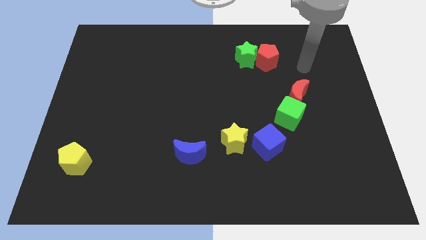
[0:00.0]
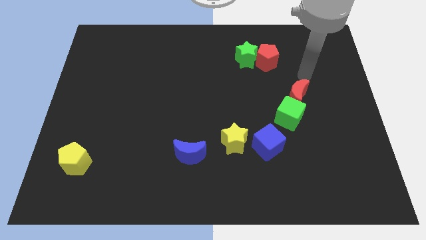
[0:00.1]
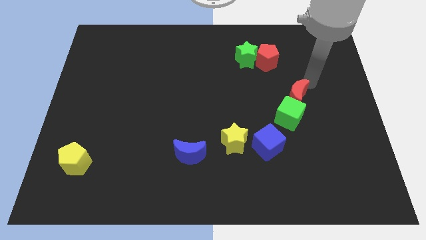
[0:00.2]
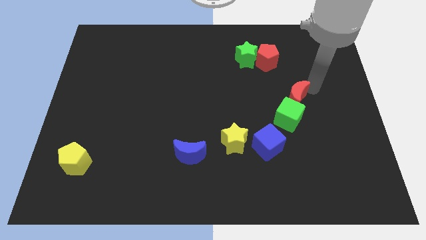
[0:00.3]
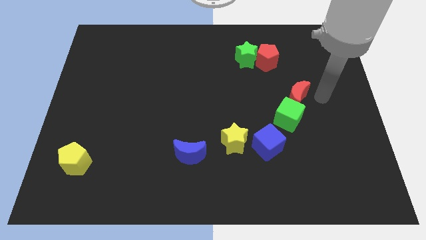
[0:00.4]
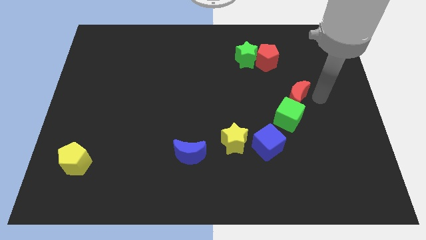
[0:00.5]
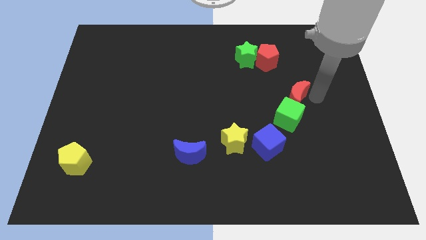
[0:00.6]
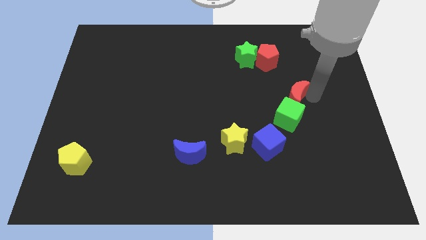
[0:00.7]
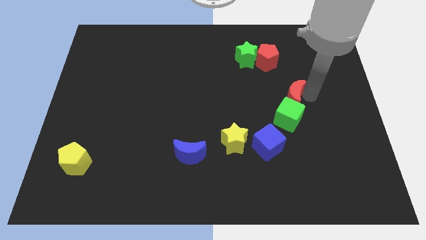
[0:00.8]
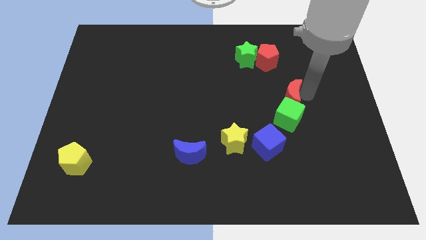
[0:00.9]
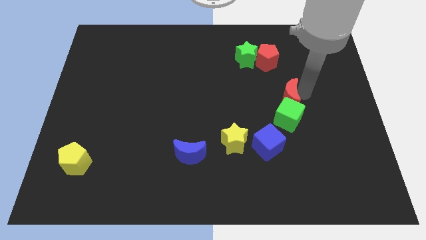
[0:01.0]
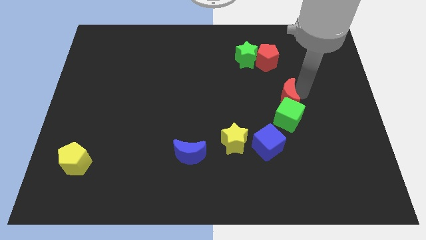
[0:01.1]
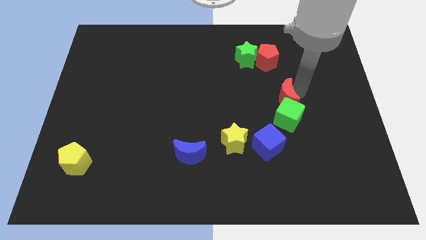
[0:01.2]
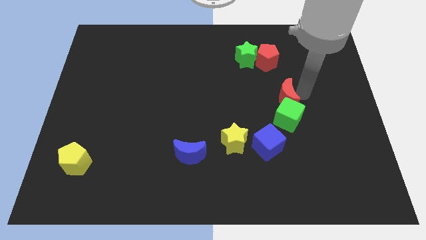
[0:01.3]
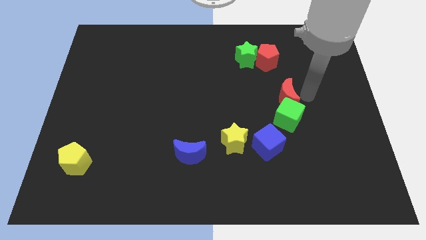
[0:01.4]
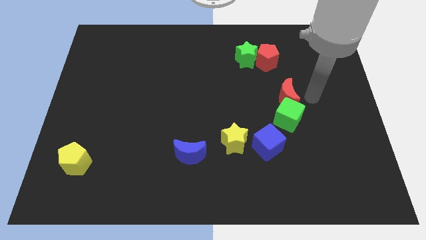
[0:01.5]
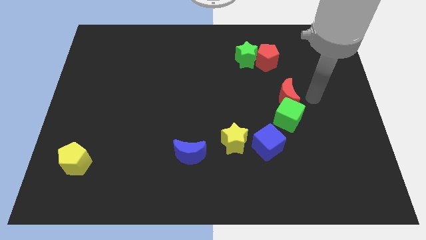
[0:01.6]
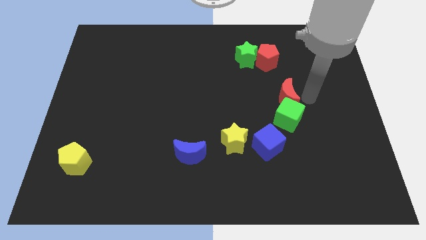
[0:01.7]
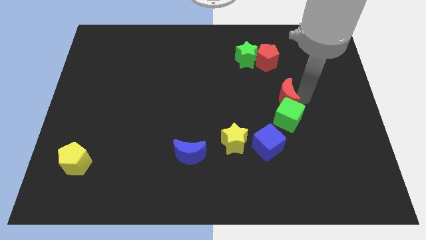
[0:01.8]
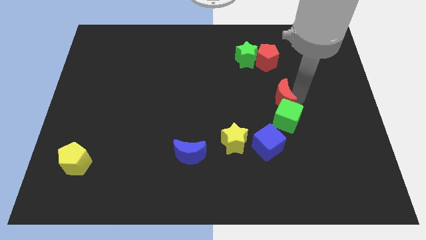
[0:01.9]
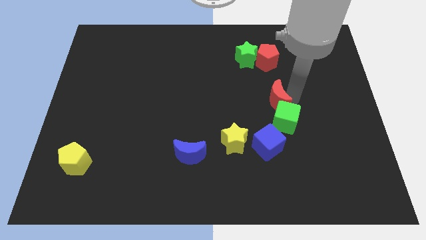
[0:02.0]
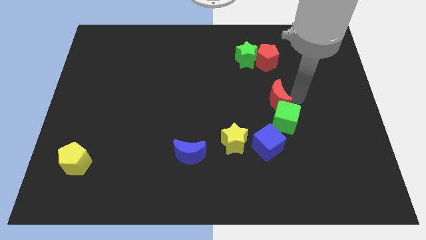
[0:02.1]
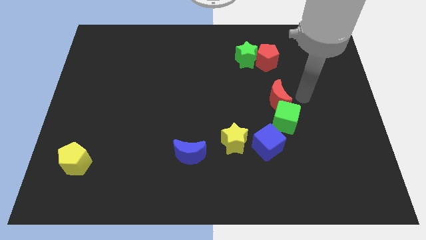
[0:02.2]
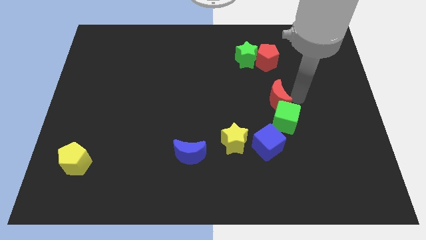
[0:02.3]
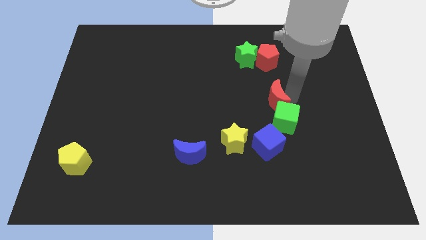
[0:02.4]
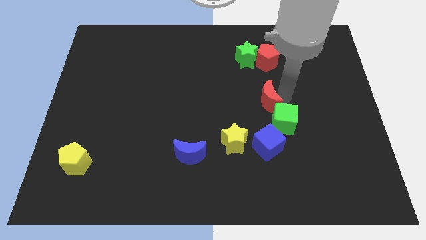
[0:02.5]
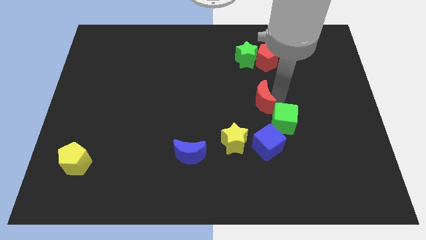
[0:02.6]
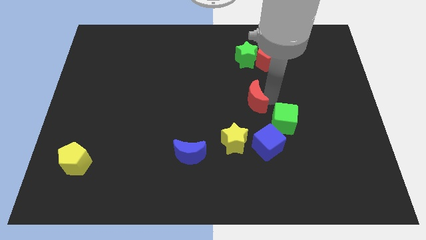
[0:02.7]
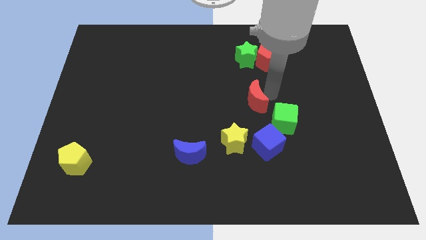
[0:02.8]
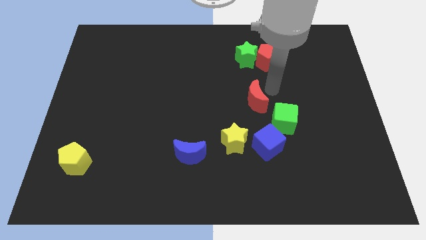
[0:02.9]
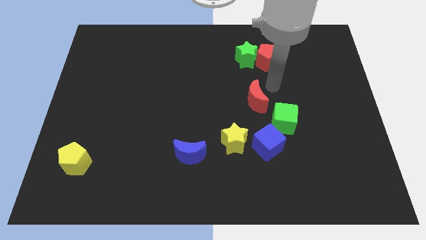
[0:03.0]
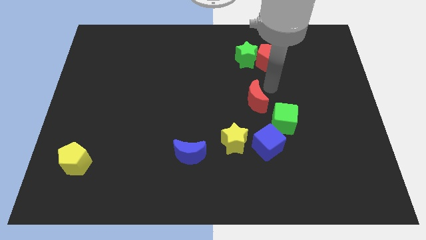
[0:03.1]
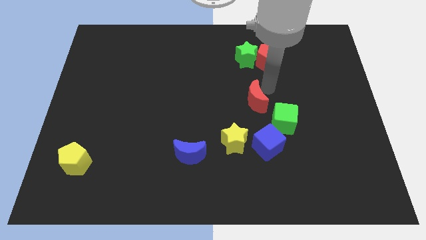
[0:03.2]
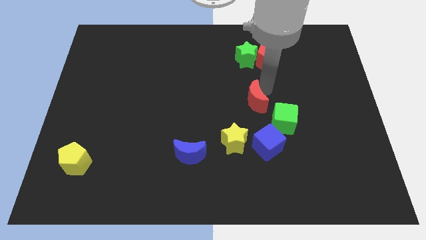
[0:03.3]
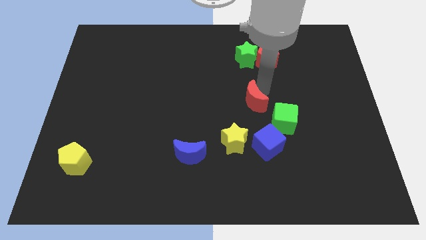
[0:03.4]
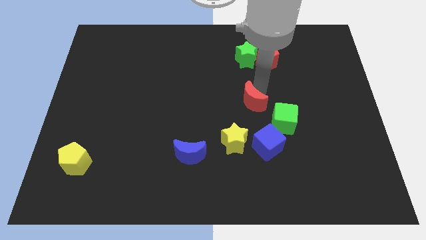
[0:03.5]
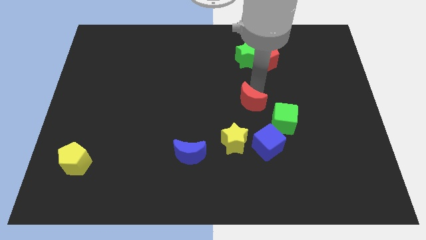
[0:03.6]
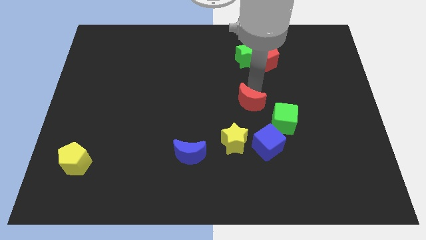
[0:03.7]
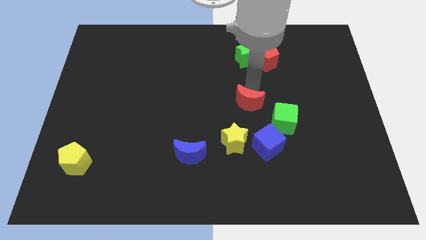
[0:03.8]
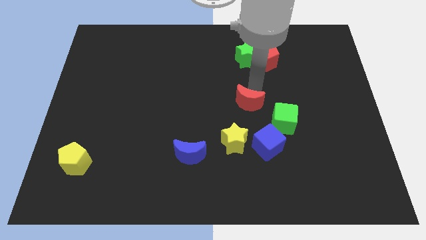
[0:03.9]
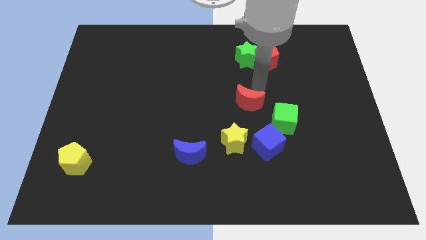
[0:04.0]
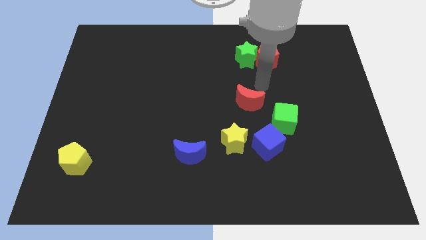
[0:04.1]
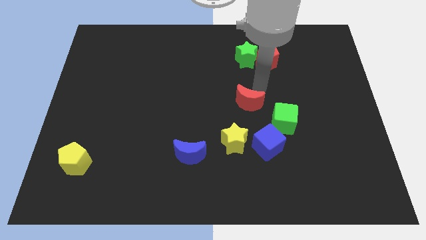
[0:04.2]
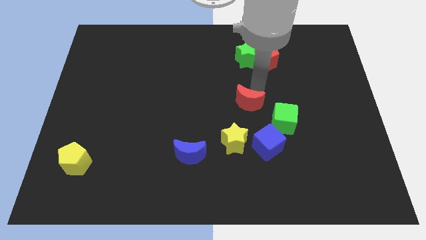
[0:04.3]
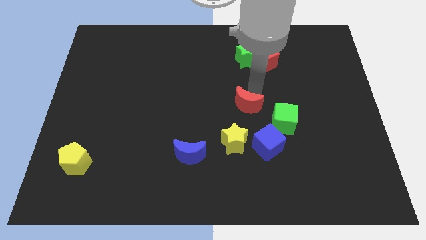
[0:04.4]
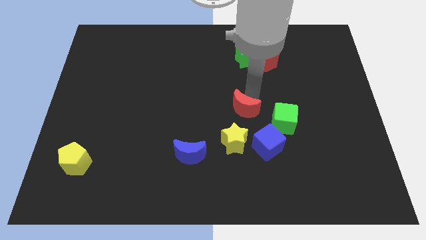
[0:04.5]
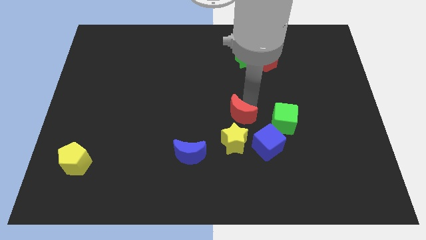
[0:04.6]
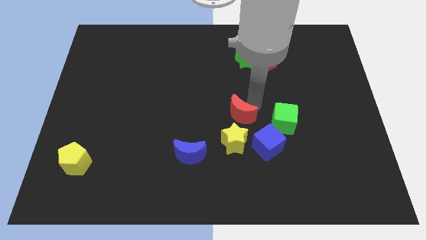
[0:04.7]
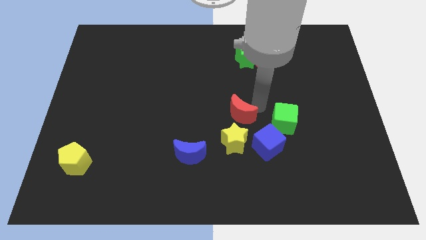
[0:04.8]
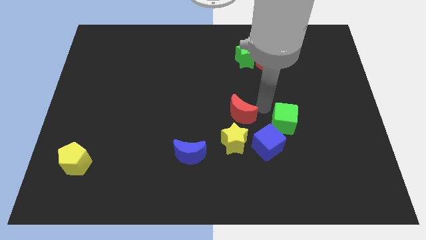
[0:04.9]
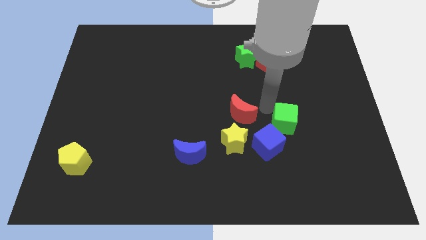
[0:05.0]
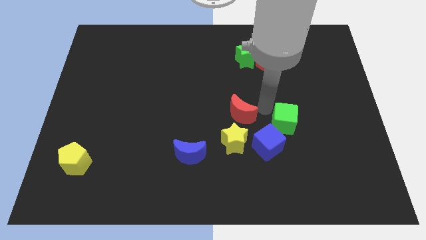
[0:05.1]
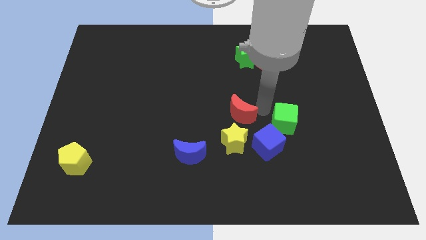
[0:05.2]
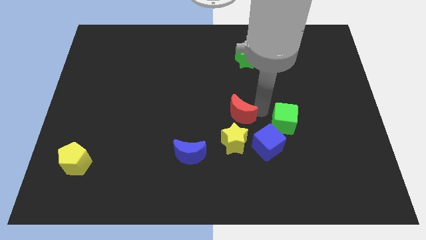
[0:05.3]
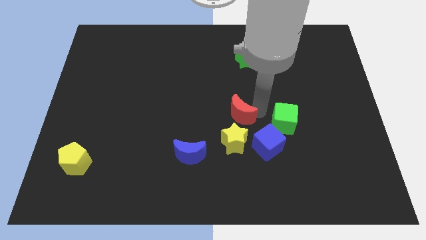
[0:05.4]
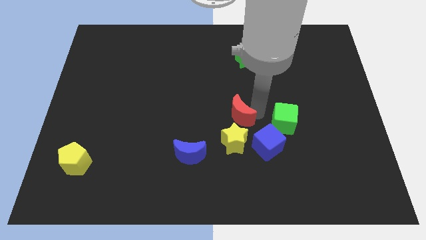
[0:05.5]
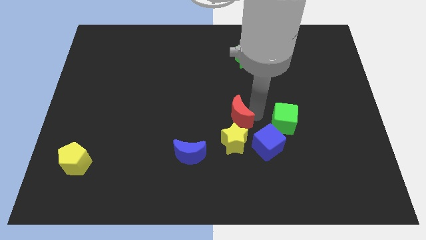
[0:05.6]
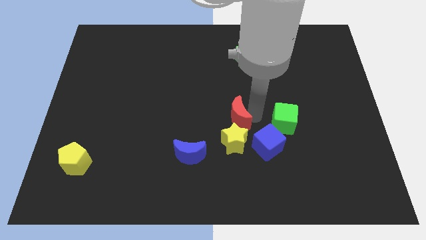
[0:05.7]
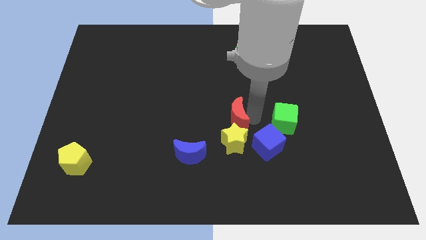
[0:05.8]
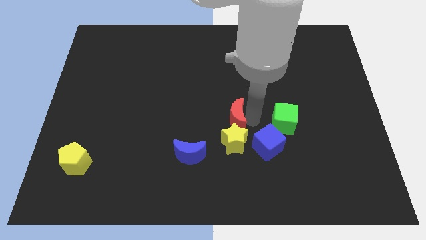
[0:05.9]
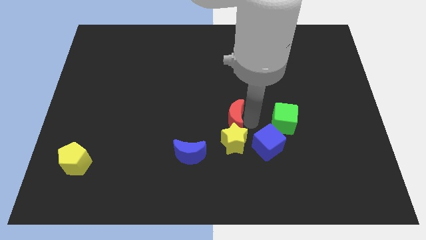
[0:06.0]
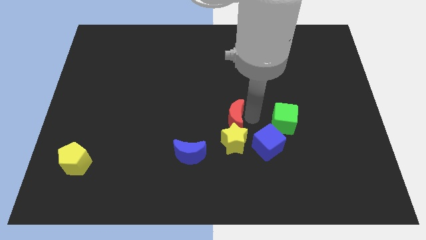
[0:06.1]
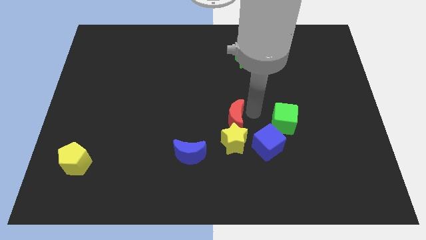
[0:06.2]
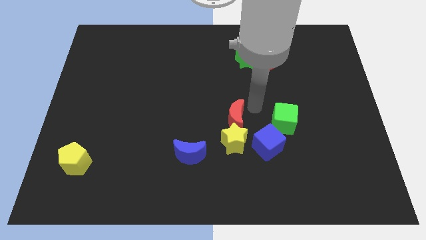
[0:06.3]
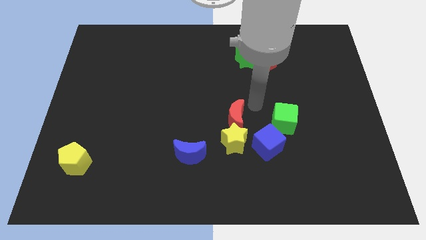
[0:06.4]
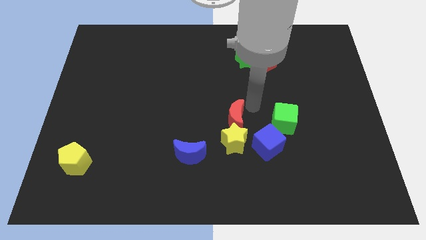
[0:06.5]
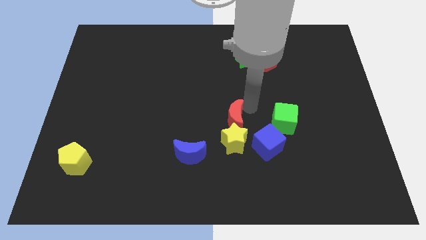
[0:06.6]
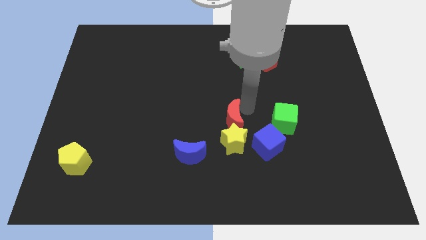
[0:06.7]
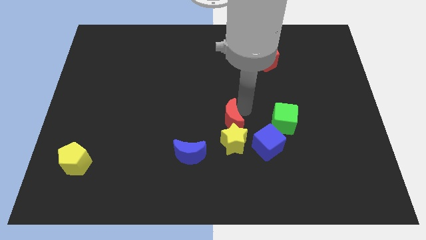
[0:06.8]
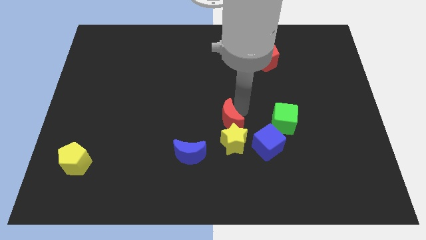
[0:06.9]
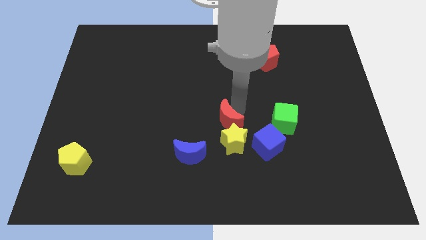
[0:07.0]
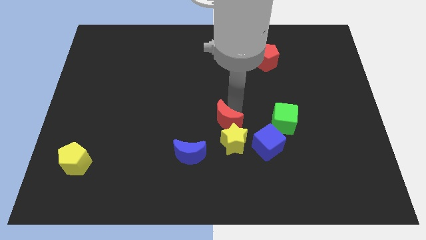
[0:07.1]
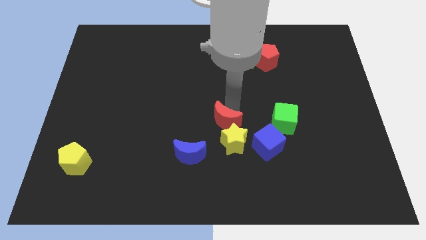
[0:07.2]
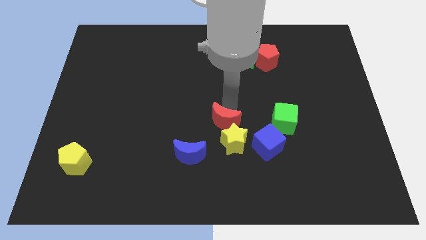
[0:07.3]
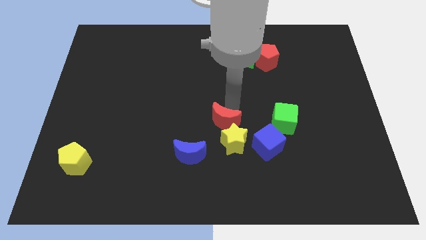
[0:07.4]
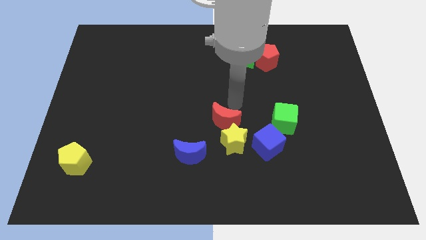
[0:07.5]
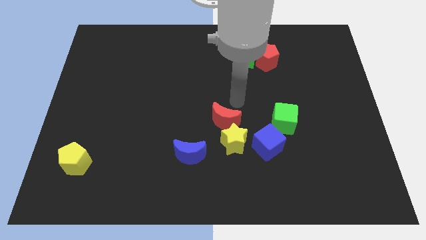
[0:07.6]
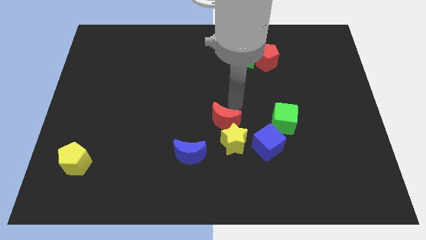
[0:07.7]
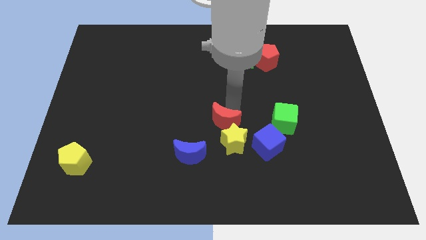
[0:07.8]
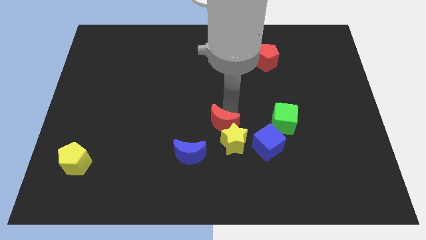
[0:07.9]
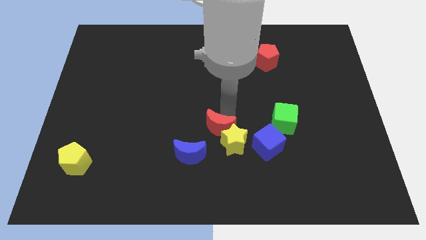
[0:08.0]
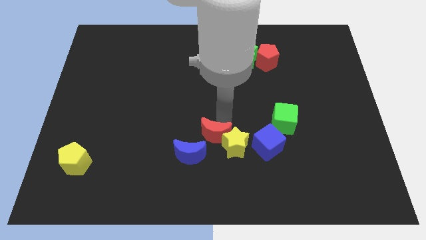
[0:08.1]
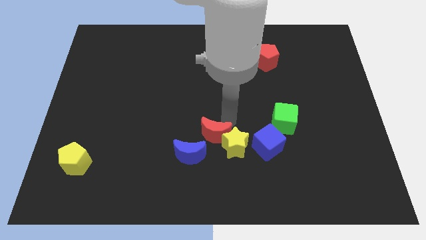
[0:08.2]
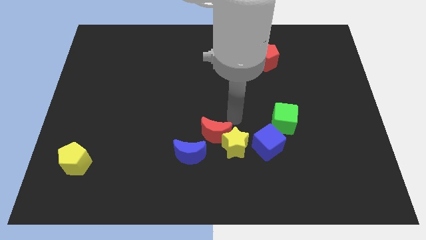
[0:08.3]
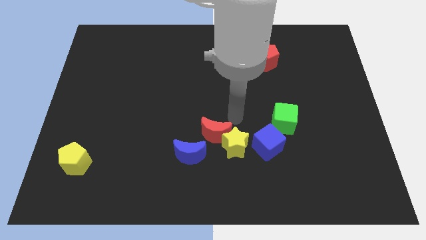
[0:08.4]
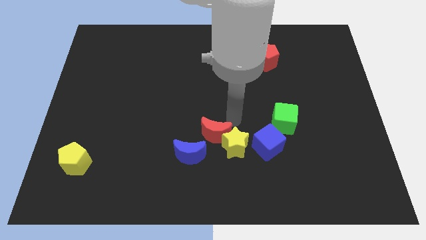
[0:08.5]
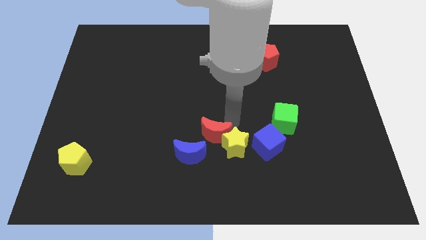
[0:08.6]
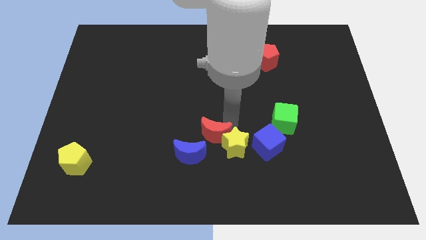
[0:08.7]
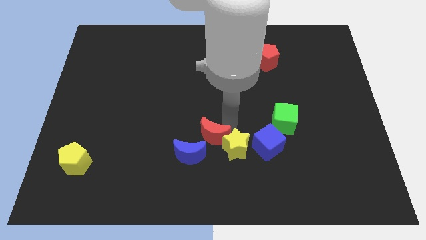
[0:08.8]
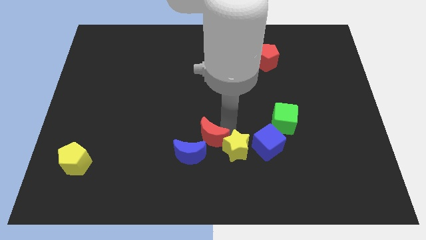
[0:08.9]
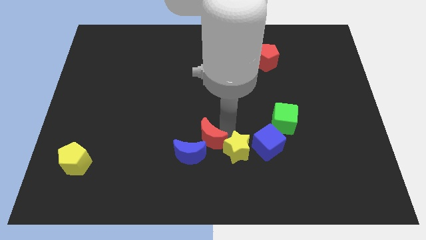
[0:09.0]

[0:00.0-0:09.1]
slide the red moon next to the blue moon
